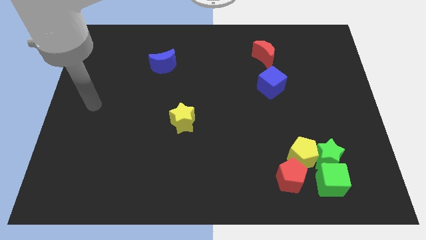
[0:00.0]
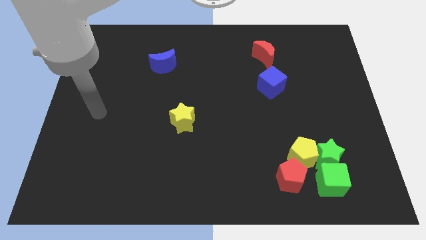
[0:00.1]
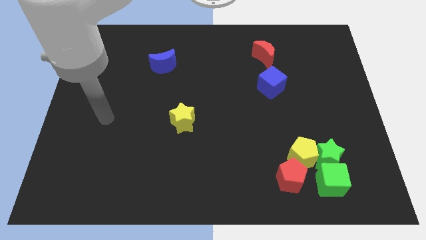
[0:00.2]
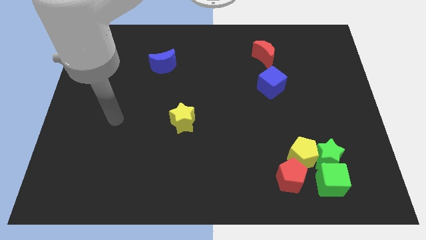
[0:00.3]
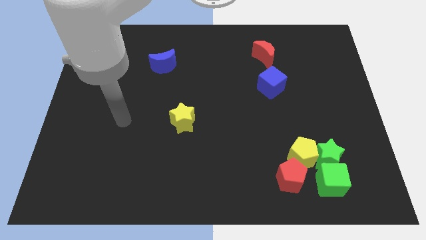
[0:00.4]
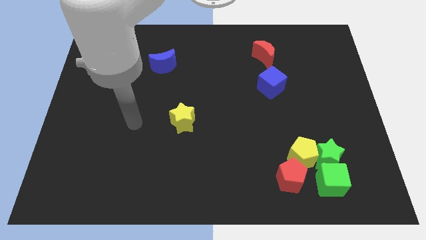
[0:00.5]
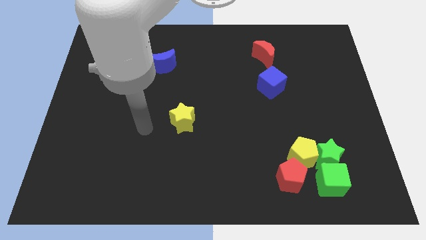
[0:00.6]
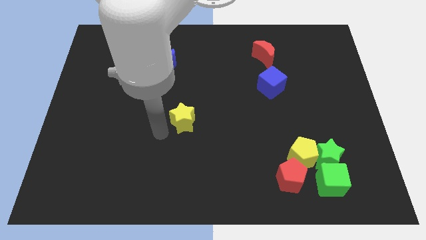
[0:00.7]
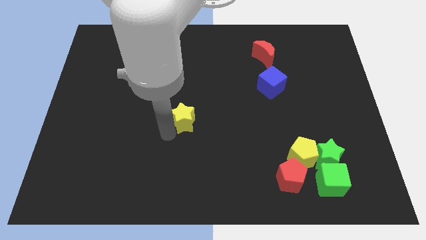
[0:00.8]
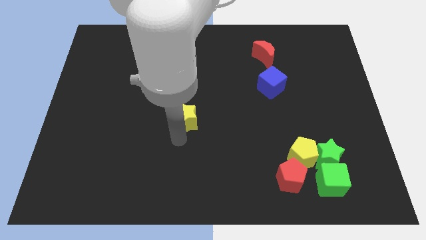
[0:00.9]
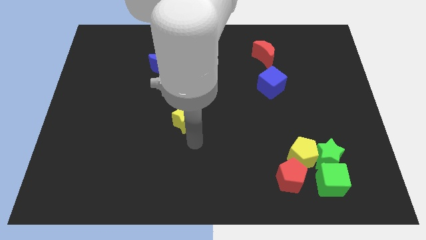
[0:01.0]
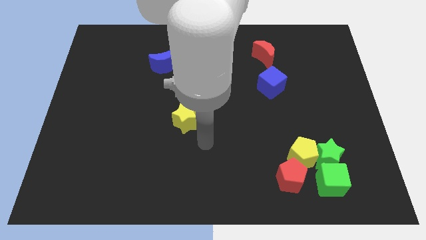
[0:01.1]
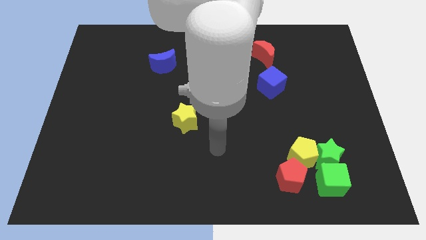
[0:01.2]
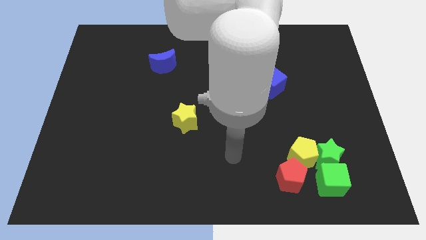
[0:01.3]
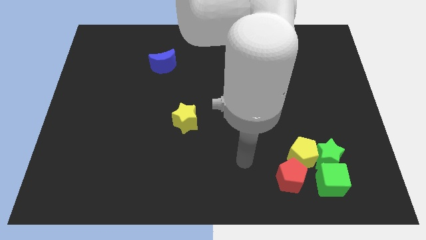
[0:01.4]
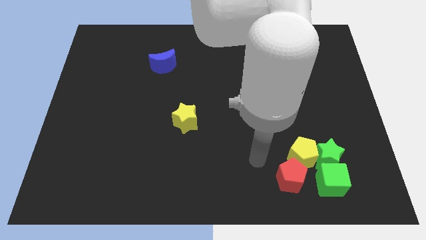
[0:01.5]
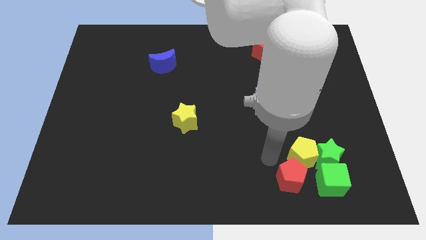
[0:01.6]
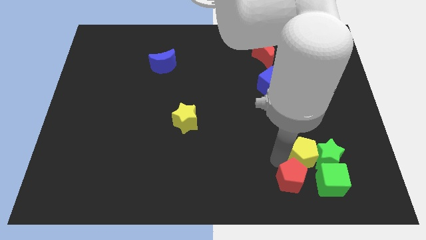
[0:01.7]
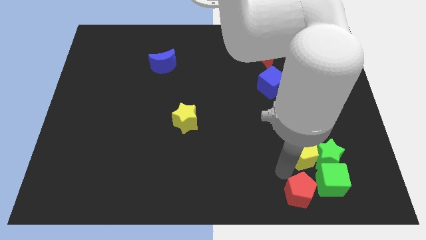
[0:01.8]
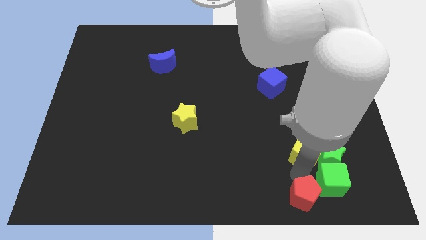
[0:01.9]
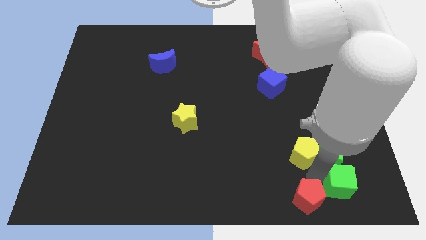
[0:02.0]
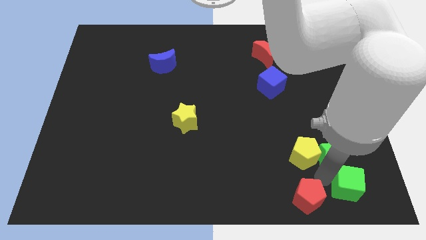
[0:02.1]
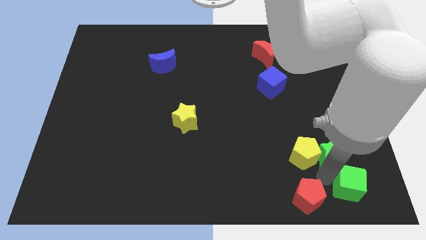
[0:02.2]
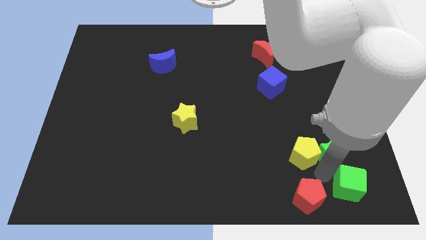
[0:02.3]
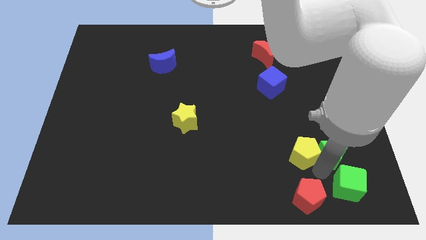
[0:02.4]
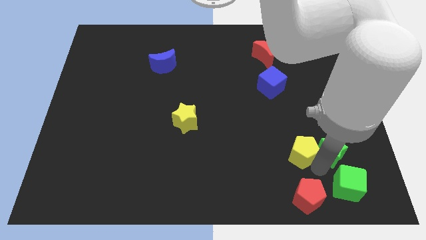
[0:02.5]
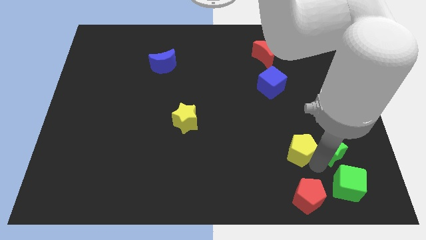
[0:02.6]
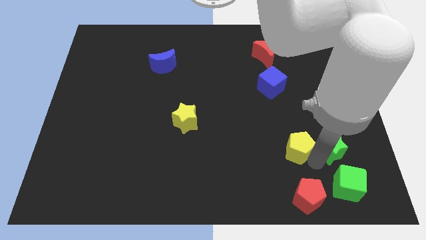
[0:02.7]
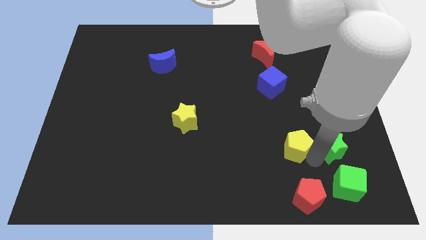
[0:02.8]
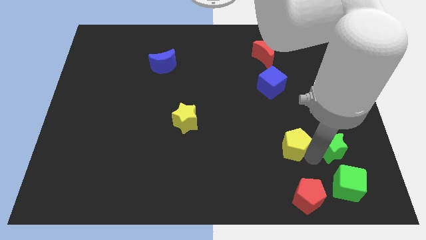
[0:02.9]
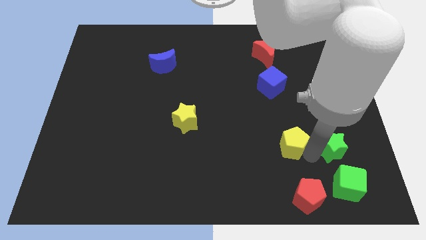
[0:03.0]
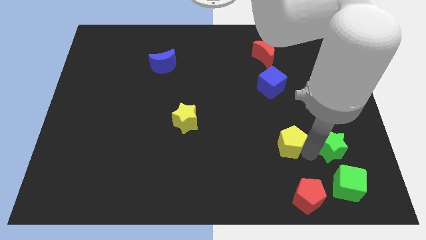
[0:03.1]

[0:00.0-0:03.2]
separate the yellow pentagon from the green star, red pentagon, and green cube

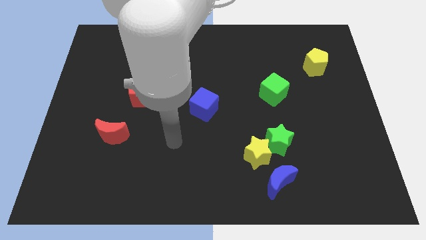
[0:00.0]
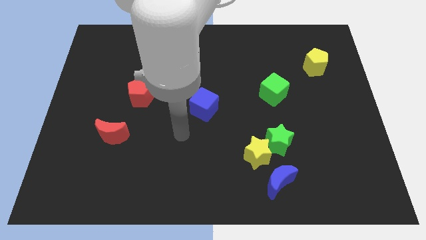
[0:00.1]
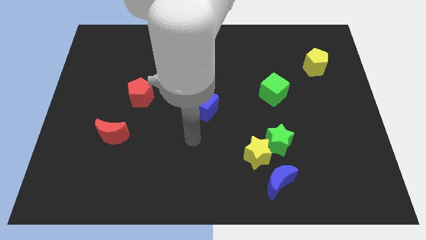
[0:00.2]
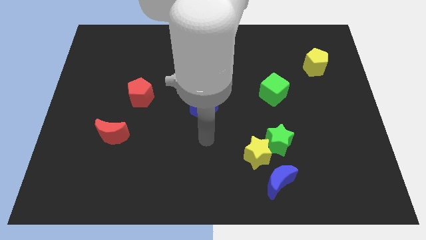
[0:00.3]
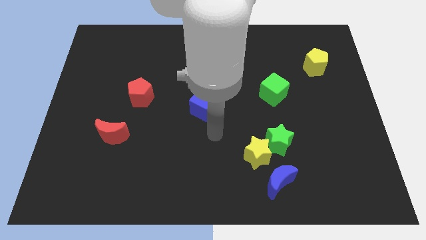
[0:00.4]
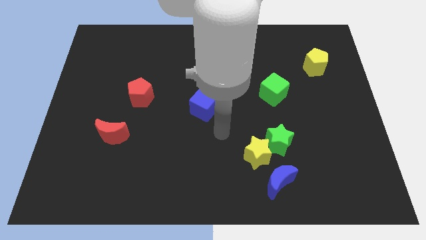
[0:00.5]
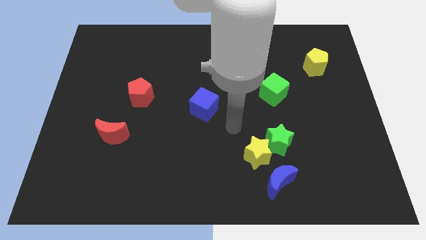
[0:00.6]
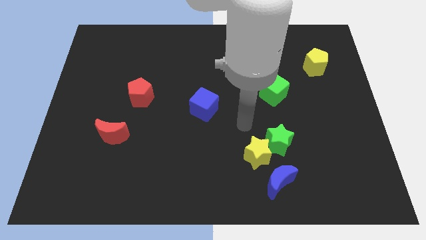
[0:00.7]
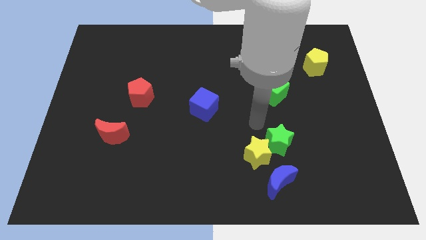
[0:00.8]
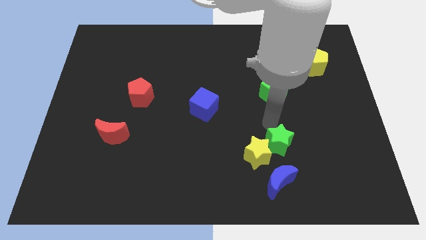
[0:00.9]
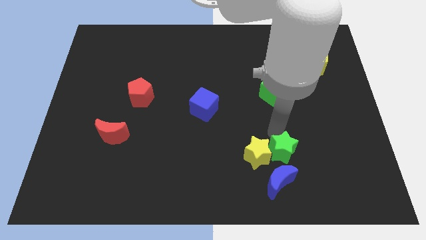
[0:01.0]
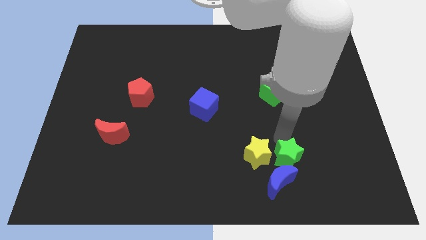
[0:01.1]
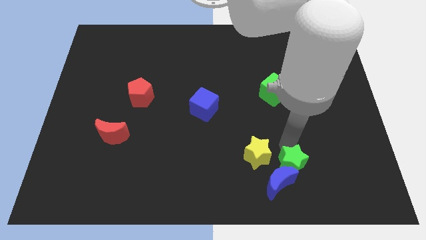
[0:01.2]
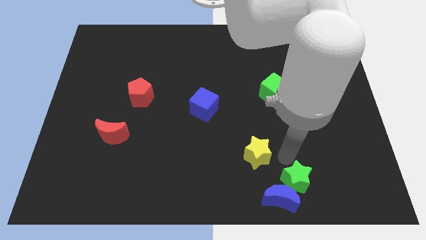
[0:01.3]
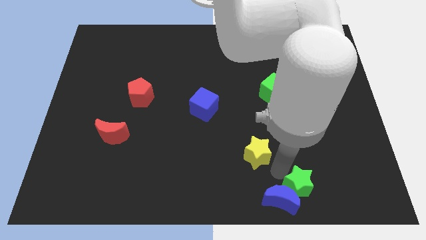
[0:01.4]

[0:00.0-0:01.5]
separate the yellow star from the green star and blue moon

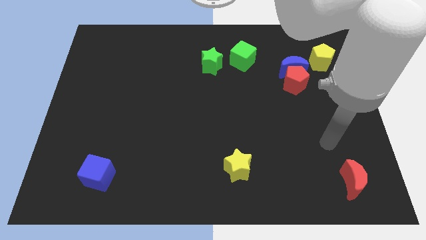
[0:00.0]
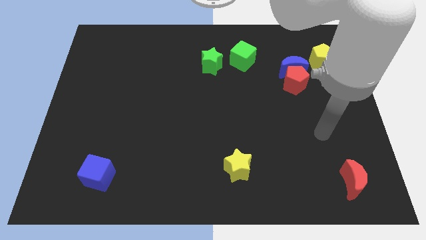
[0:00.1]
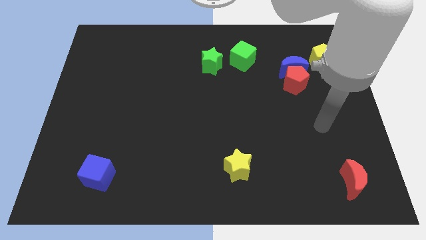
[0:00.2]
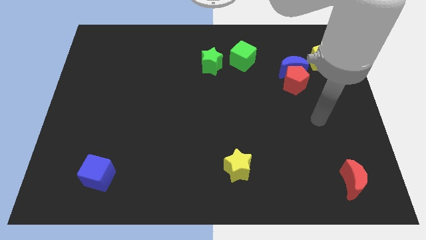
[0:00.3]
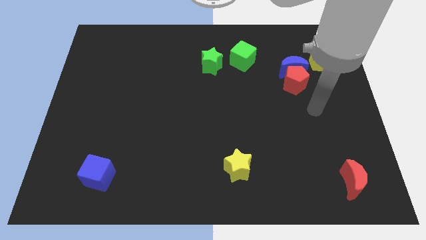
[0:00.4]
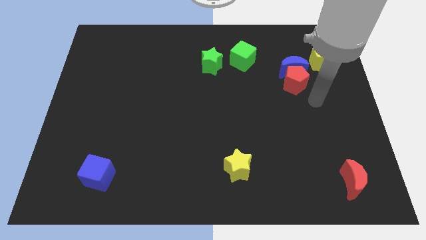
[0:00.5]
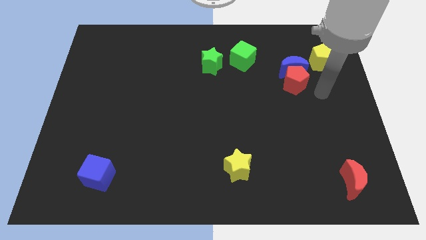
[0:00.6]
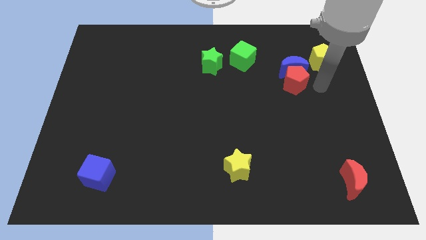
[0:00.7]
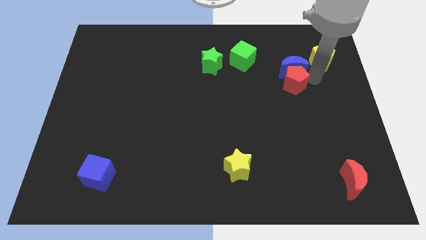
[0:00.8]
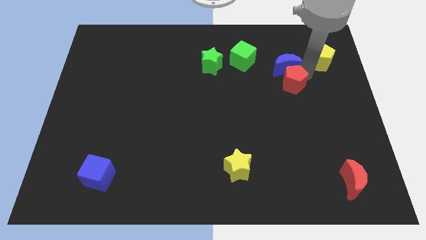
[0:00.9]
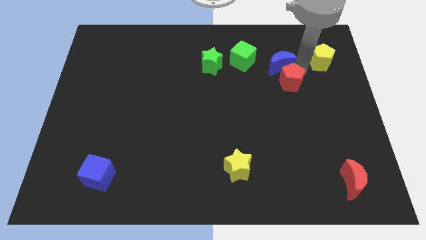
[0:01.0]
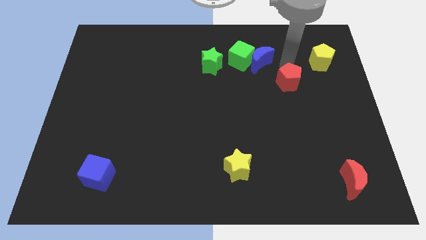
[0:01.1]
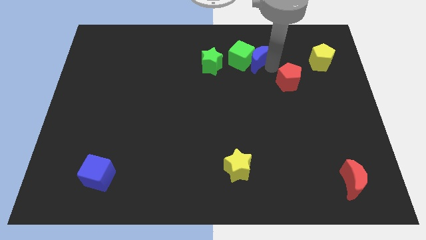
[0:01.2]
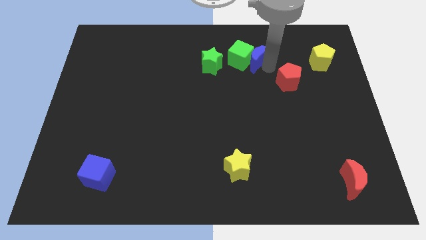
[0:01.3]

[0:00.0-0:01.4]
pull the red pentagon apart from the blue moon

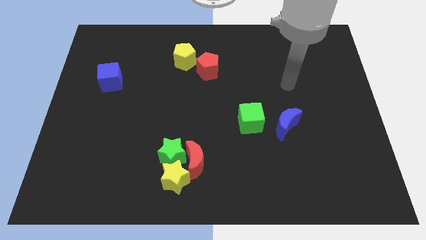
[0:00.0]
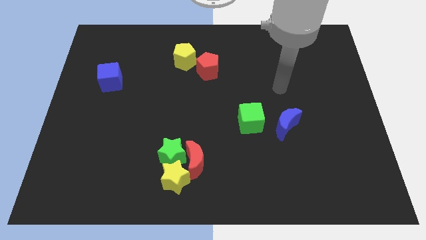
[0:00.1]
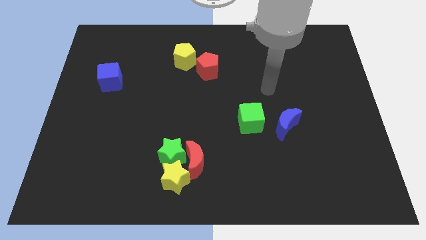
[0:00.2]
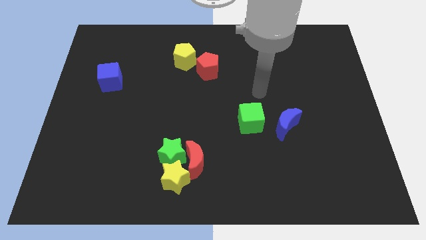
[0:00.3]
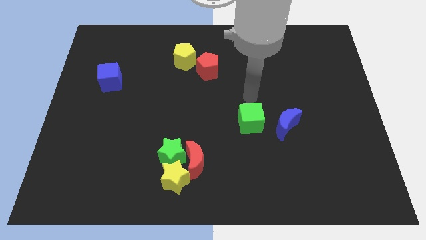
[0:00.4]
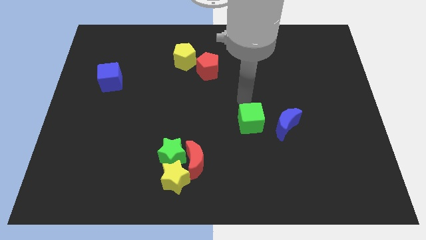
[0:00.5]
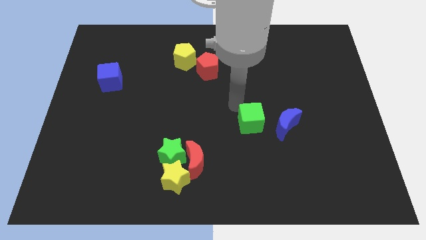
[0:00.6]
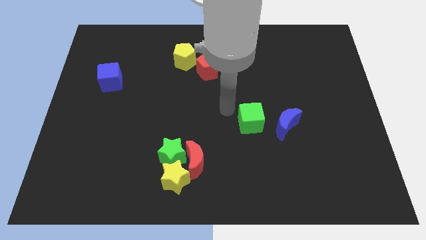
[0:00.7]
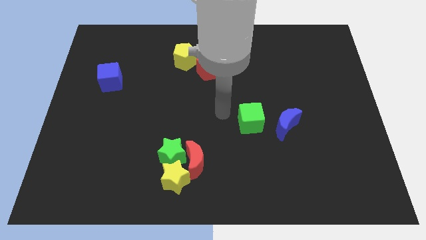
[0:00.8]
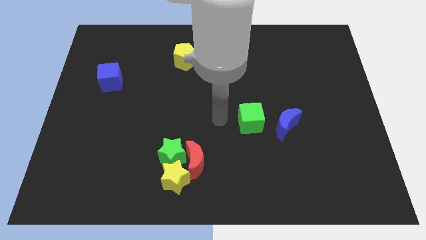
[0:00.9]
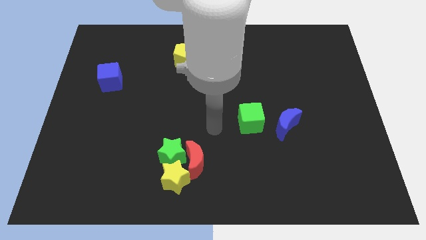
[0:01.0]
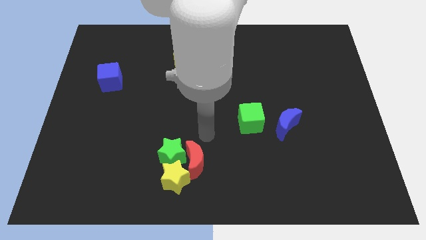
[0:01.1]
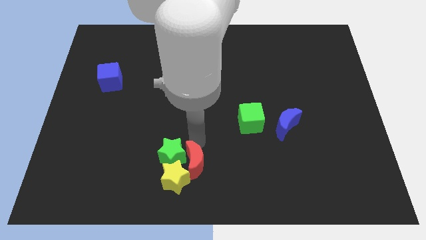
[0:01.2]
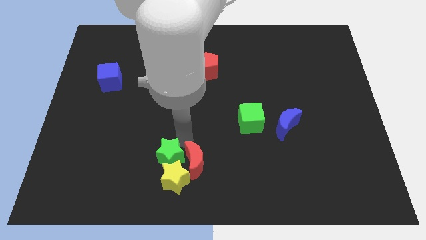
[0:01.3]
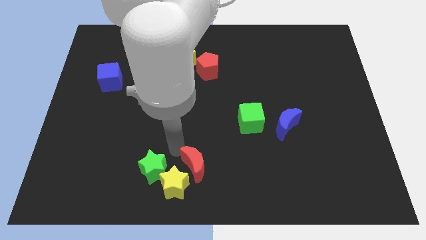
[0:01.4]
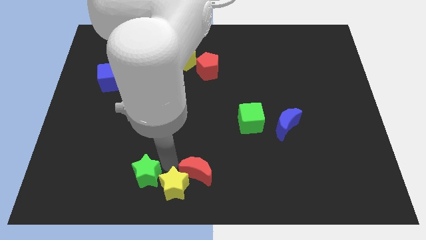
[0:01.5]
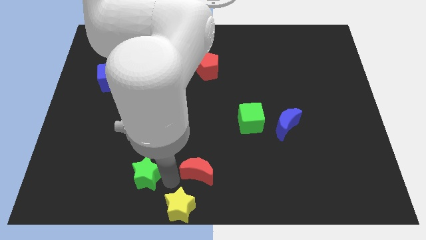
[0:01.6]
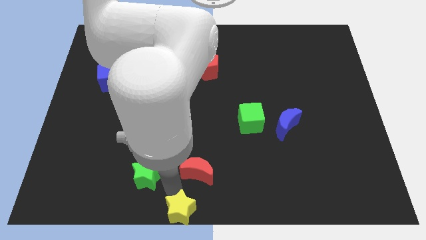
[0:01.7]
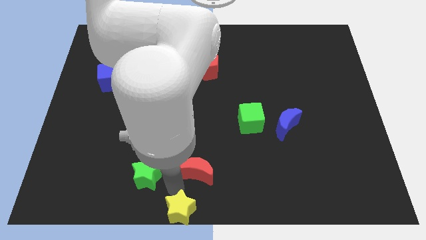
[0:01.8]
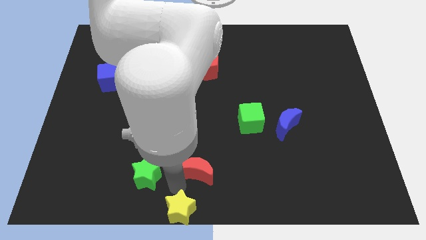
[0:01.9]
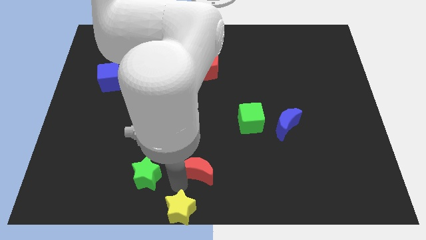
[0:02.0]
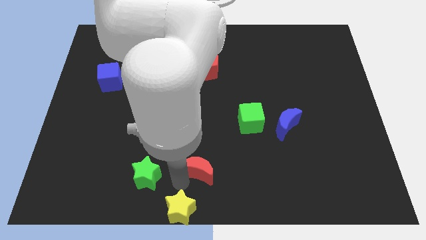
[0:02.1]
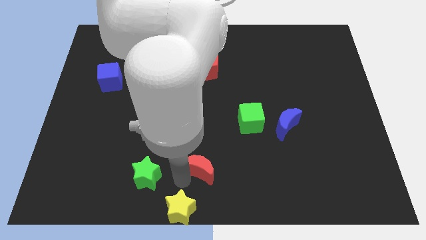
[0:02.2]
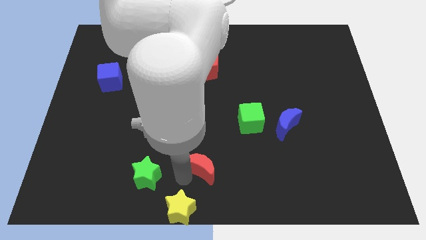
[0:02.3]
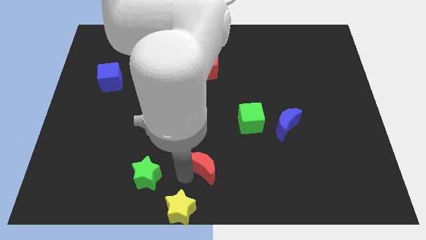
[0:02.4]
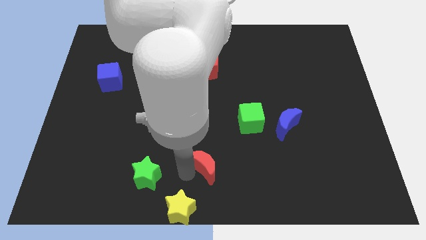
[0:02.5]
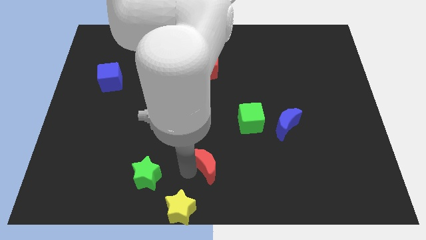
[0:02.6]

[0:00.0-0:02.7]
pull the red moon apart from the green star and yellow star

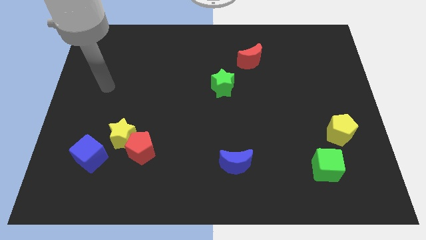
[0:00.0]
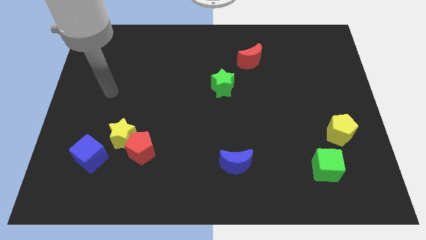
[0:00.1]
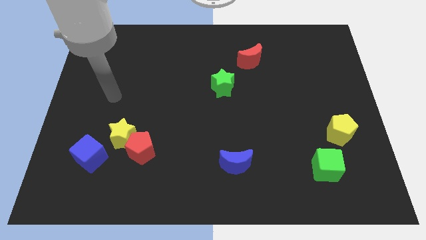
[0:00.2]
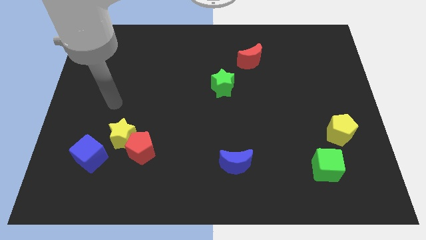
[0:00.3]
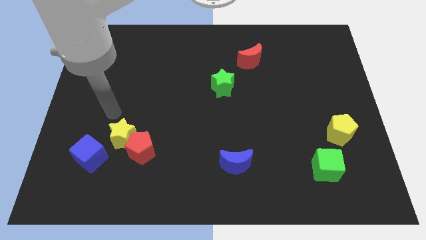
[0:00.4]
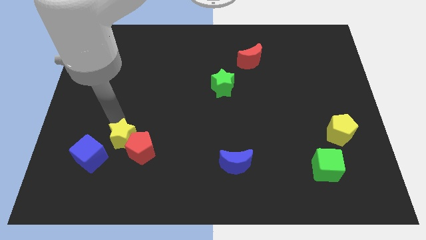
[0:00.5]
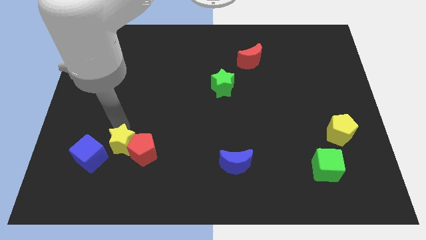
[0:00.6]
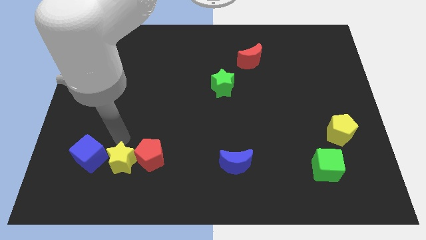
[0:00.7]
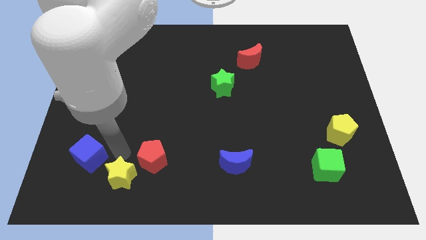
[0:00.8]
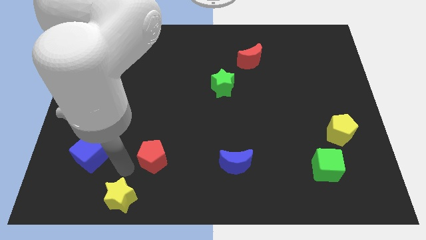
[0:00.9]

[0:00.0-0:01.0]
pull the red pentagon apart from the yellow star
